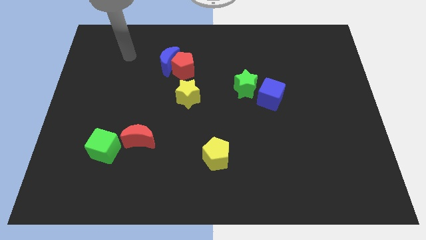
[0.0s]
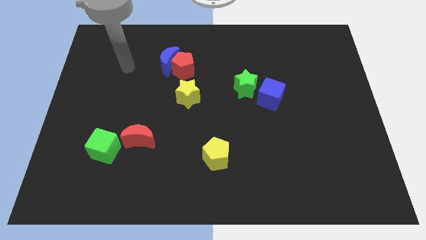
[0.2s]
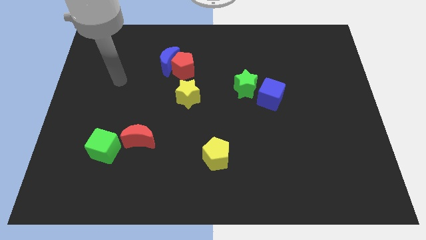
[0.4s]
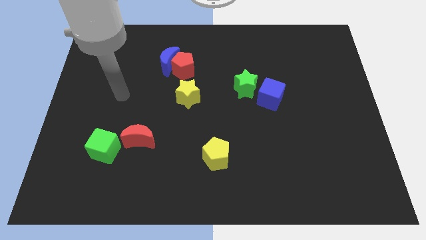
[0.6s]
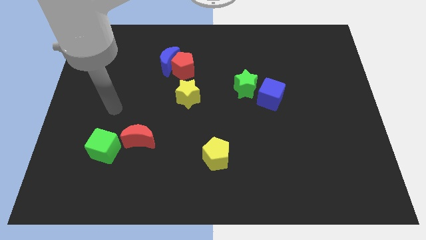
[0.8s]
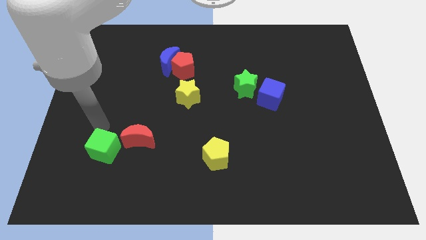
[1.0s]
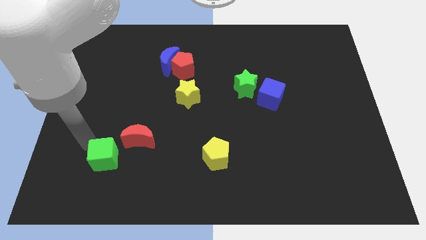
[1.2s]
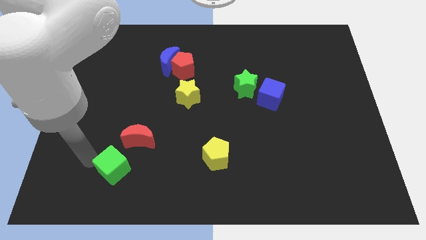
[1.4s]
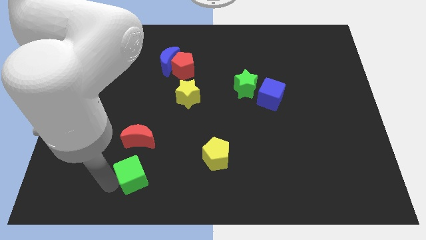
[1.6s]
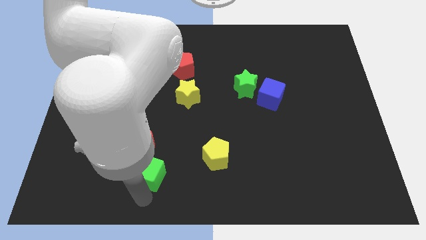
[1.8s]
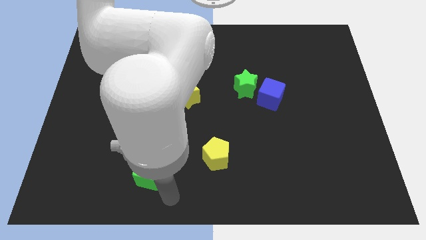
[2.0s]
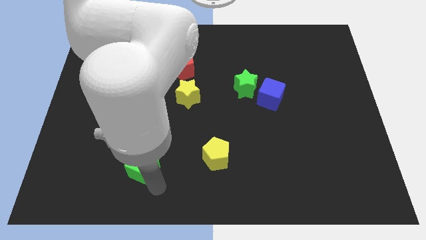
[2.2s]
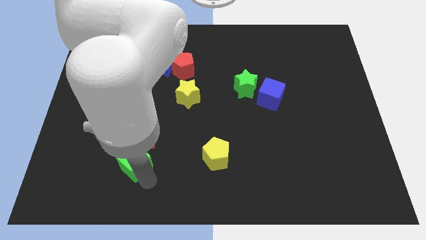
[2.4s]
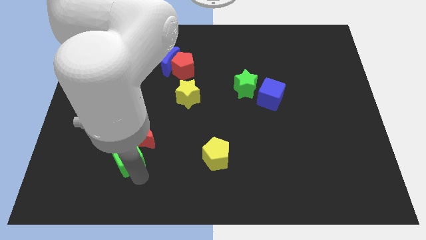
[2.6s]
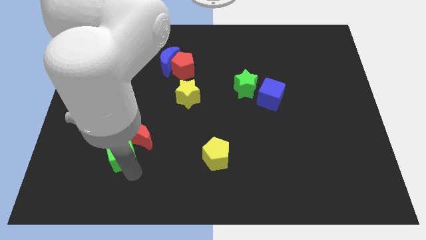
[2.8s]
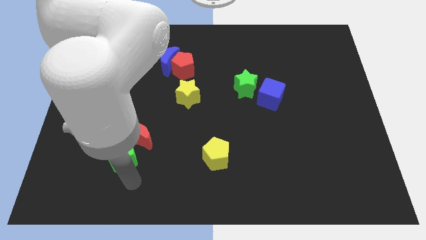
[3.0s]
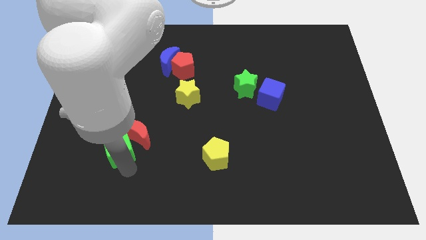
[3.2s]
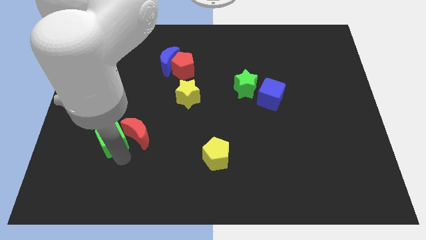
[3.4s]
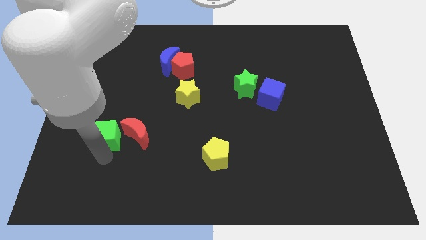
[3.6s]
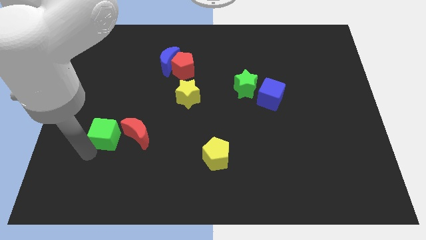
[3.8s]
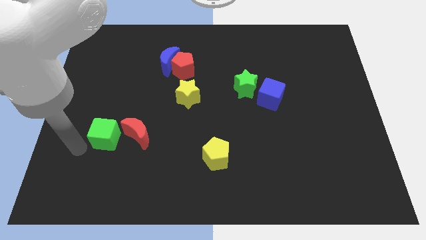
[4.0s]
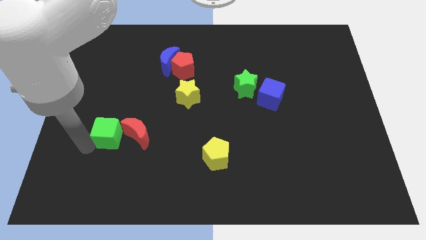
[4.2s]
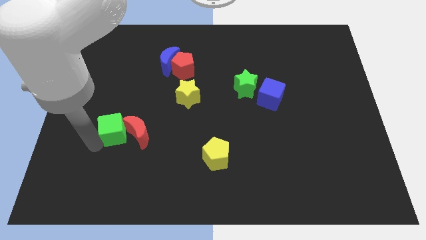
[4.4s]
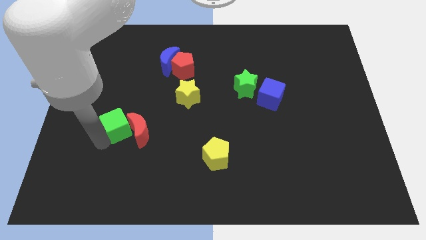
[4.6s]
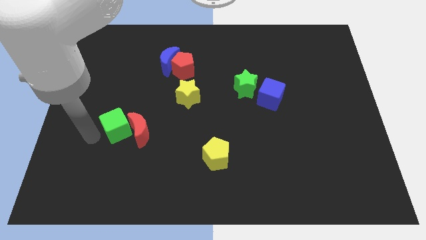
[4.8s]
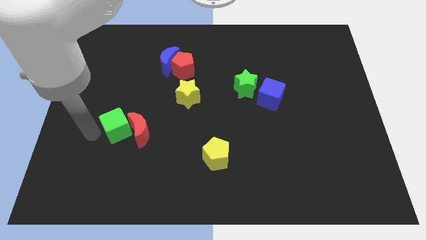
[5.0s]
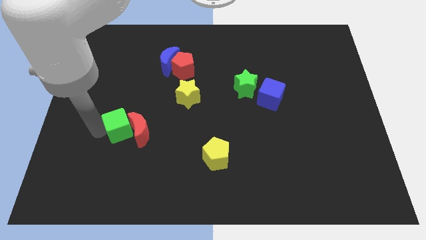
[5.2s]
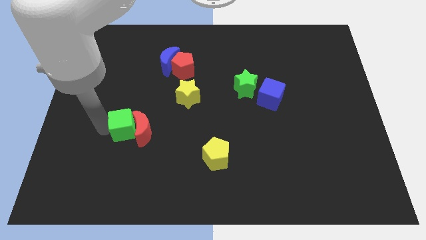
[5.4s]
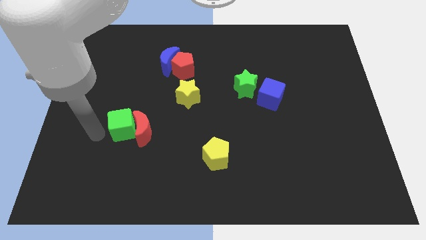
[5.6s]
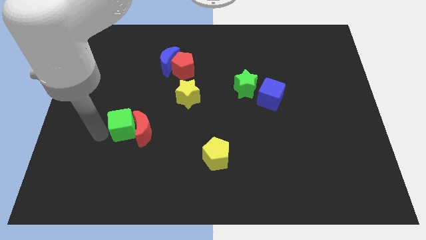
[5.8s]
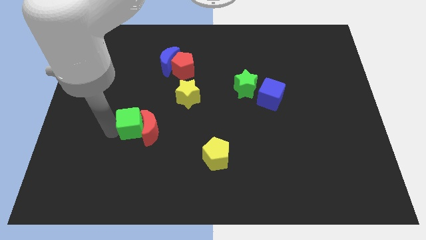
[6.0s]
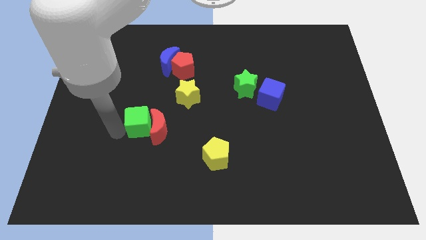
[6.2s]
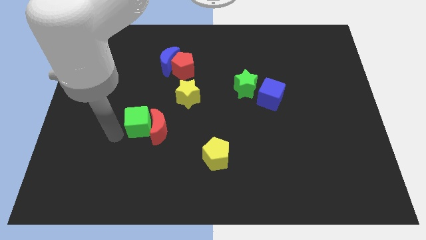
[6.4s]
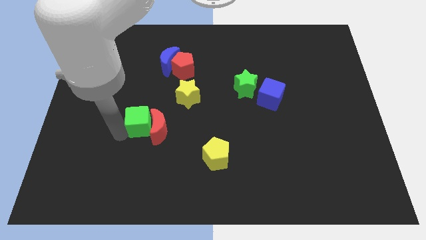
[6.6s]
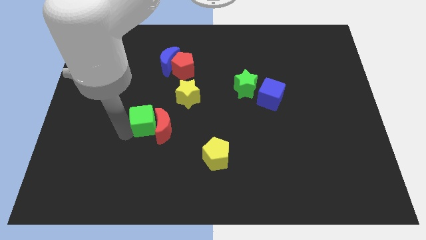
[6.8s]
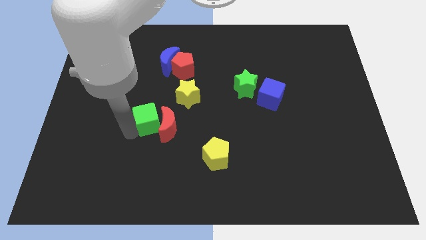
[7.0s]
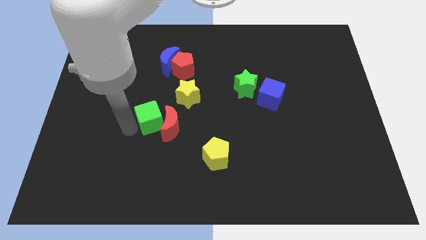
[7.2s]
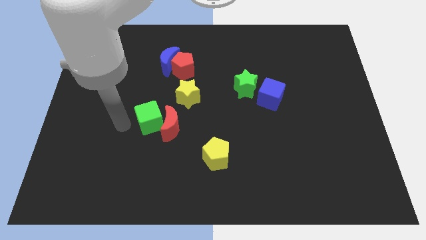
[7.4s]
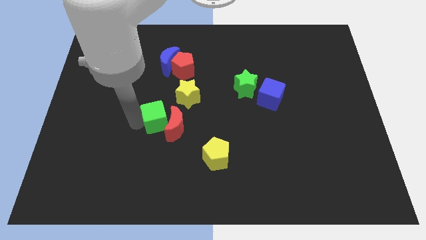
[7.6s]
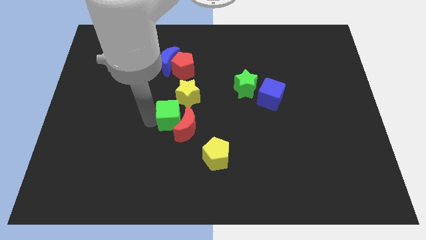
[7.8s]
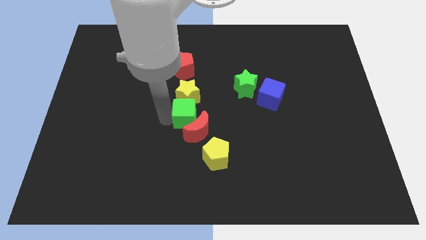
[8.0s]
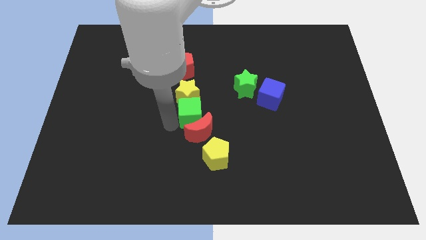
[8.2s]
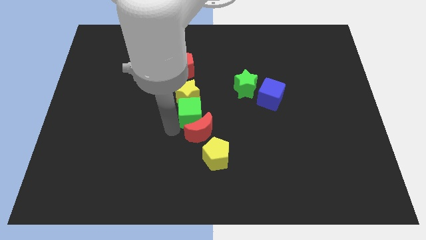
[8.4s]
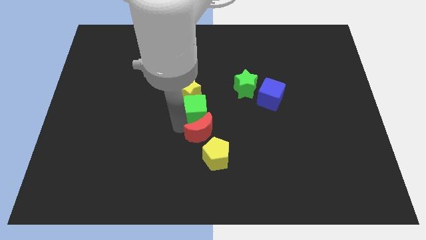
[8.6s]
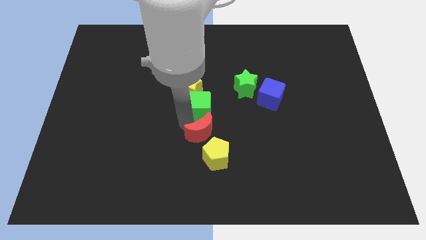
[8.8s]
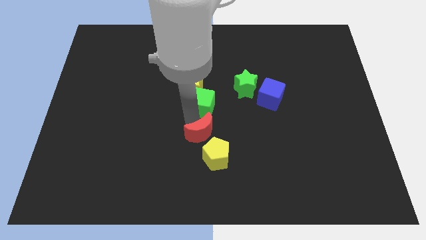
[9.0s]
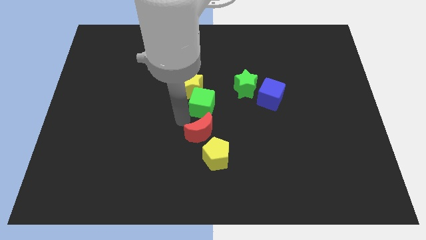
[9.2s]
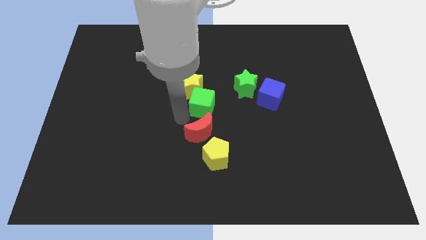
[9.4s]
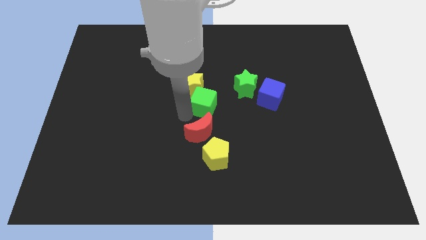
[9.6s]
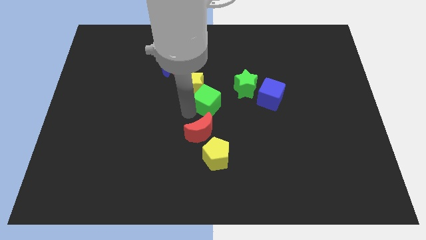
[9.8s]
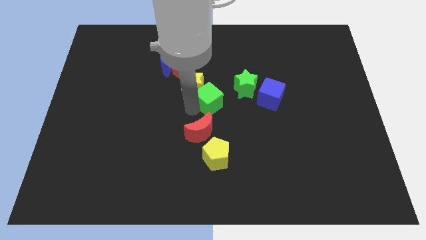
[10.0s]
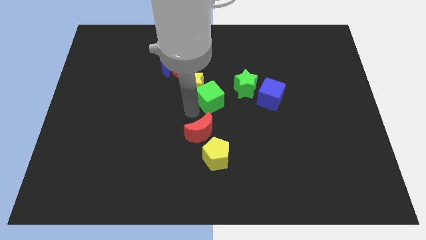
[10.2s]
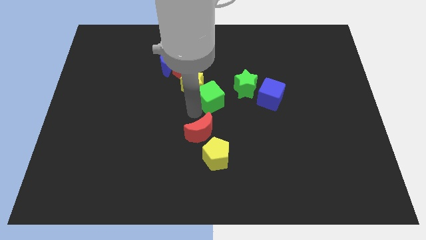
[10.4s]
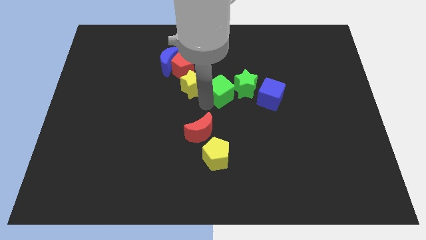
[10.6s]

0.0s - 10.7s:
move the green cube next to the green star

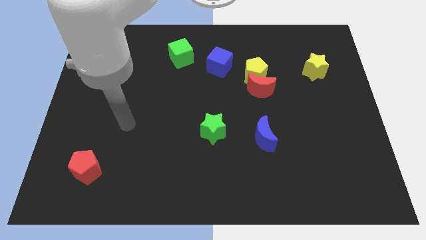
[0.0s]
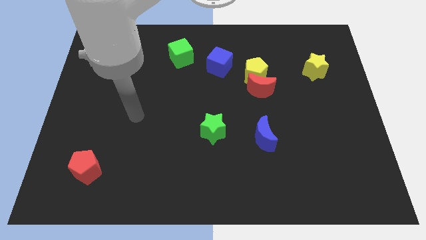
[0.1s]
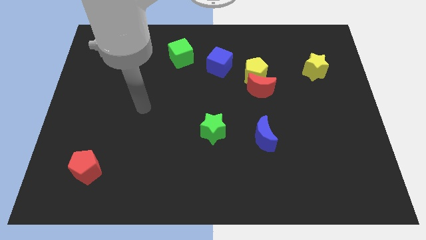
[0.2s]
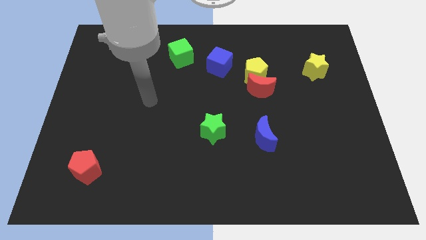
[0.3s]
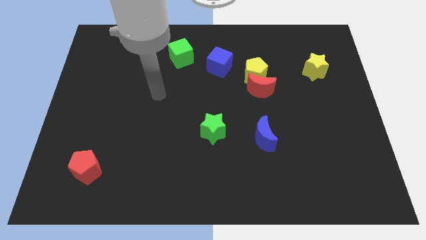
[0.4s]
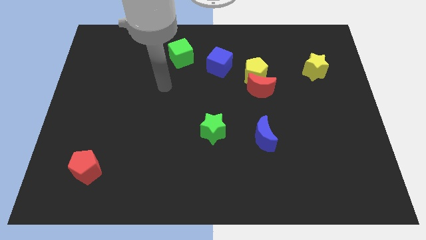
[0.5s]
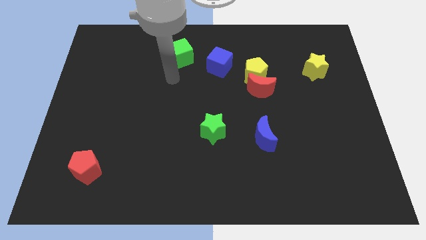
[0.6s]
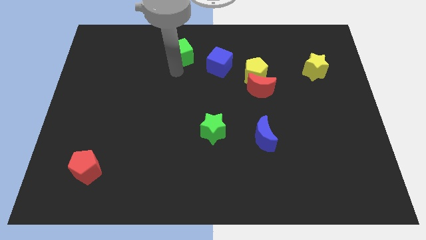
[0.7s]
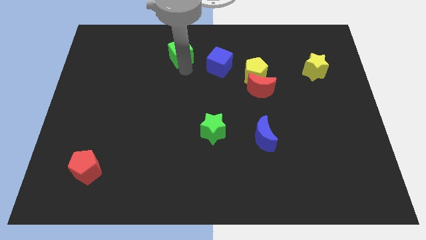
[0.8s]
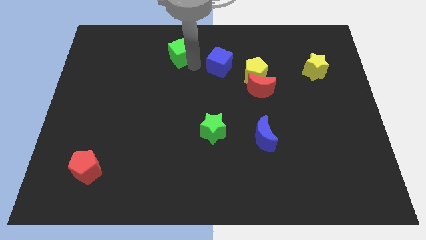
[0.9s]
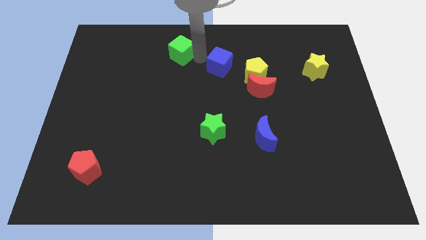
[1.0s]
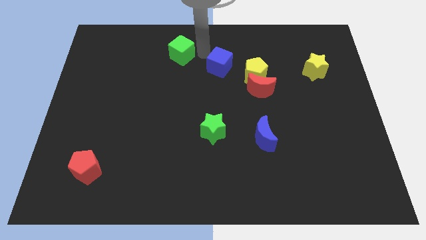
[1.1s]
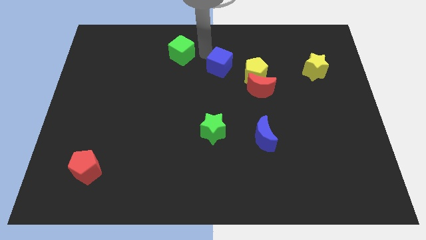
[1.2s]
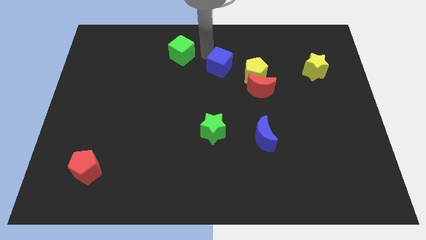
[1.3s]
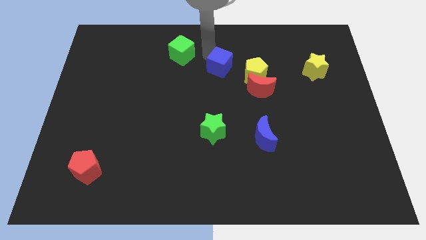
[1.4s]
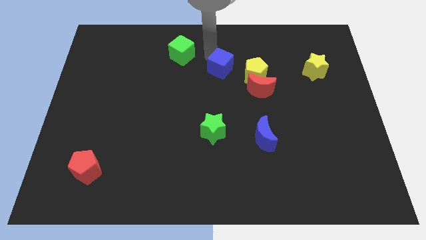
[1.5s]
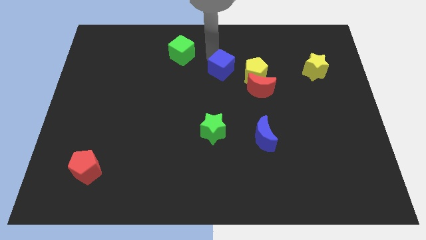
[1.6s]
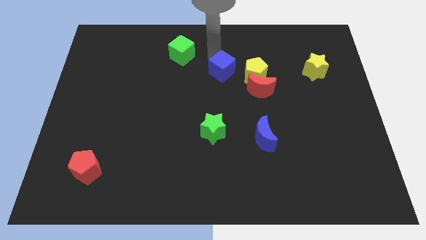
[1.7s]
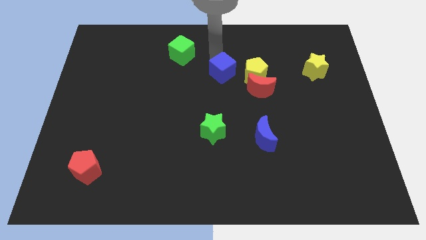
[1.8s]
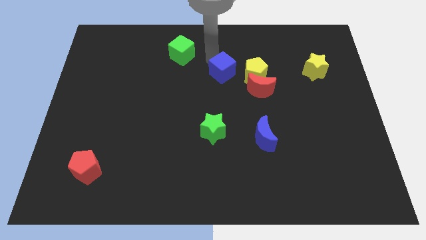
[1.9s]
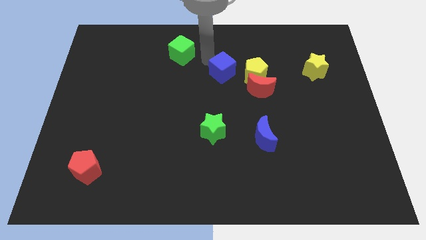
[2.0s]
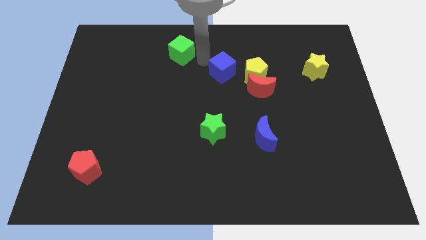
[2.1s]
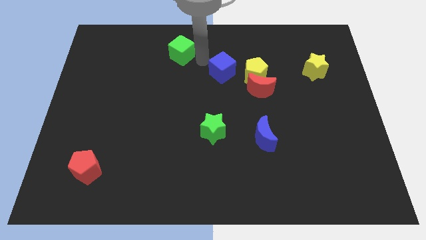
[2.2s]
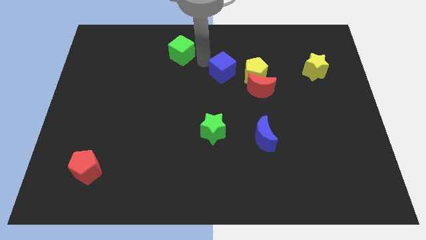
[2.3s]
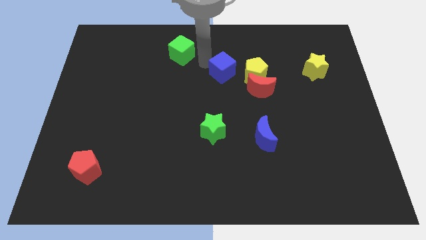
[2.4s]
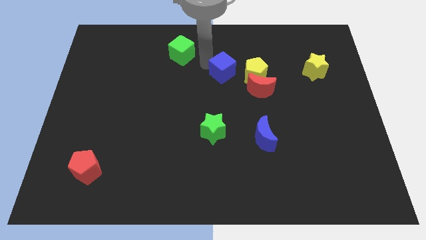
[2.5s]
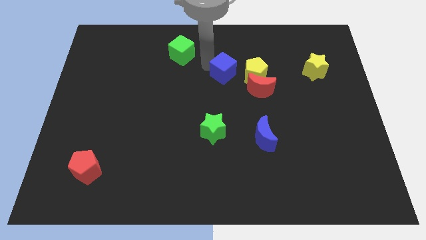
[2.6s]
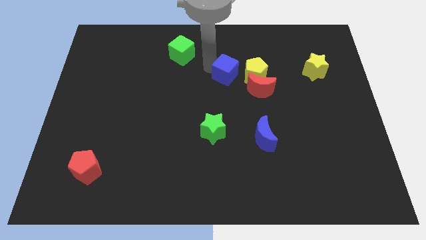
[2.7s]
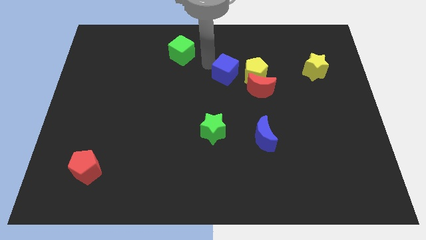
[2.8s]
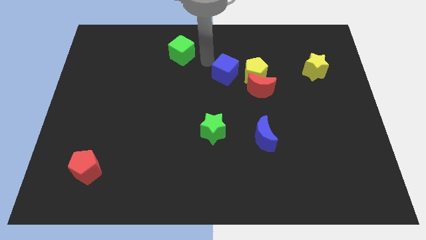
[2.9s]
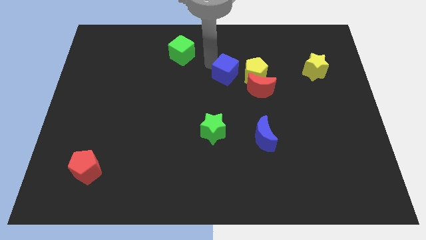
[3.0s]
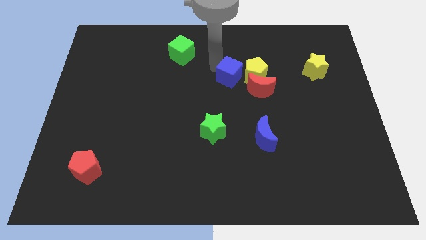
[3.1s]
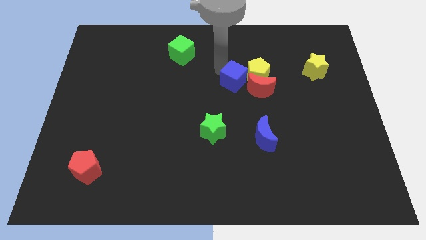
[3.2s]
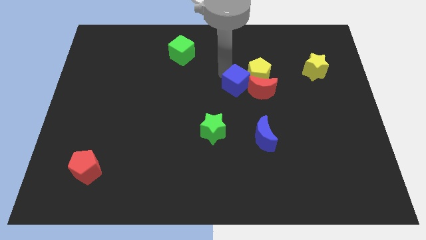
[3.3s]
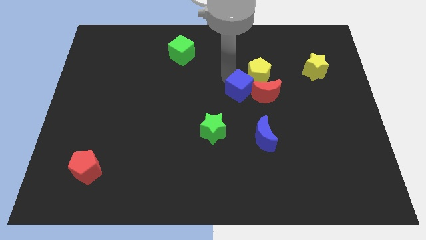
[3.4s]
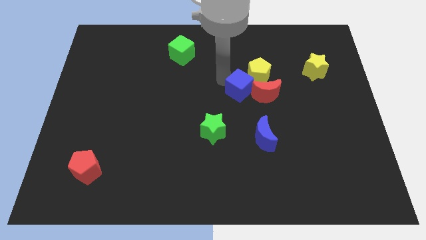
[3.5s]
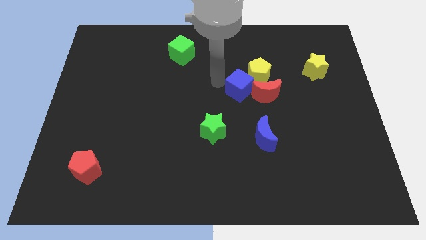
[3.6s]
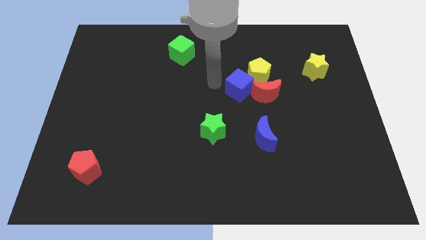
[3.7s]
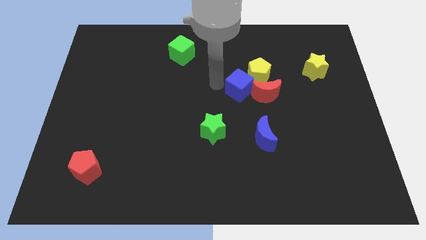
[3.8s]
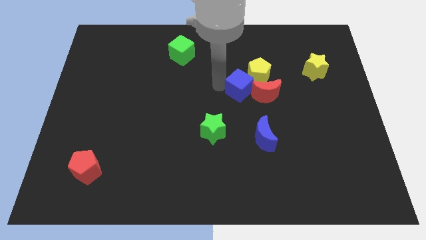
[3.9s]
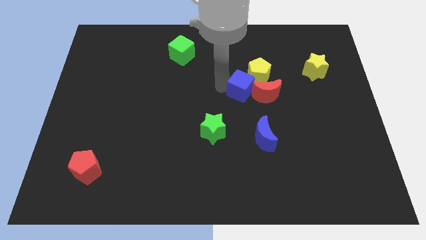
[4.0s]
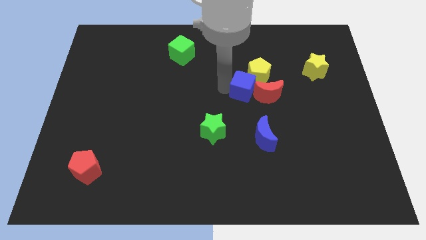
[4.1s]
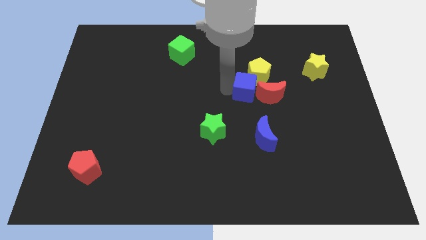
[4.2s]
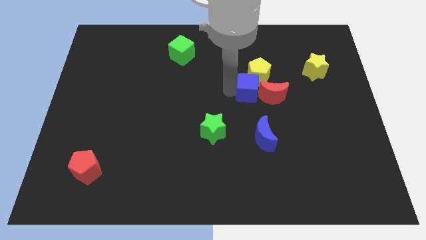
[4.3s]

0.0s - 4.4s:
put the blue cube to the red moon
